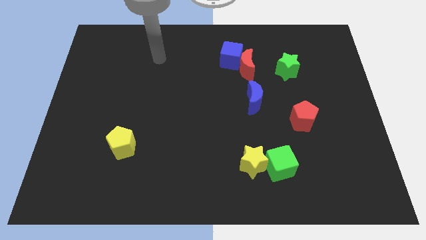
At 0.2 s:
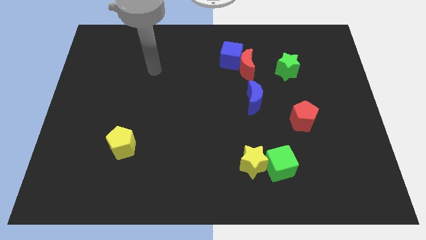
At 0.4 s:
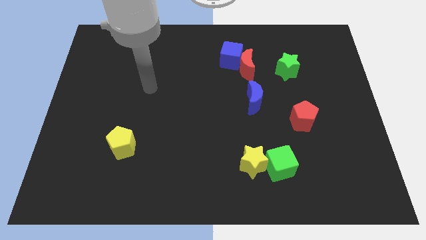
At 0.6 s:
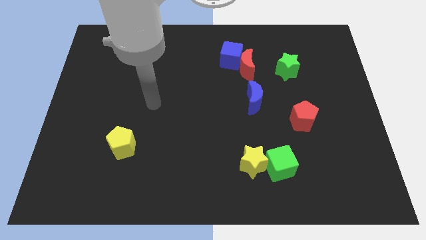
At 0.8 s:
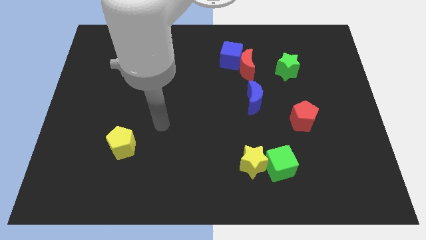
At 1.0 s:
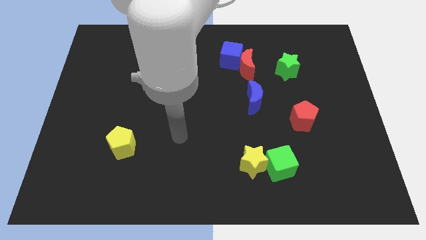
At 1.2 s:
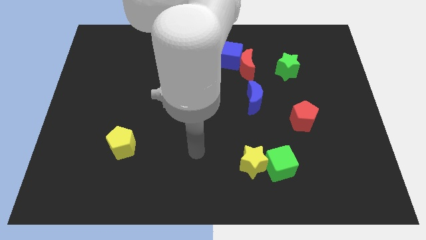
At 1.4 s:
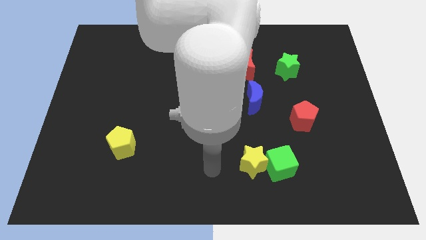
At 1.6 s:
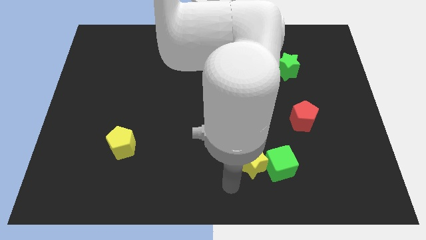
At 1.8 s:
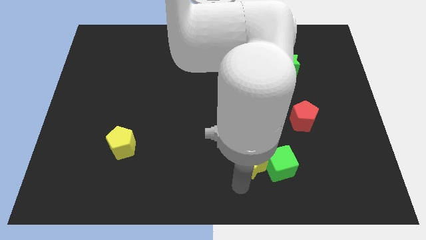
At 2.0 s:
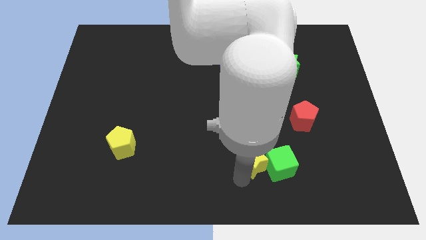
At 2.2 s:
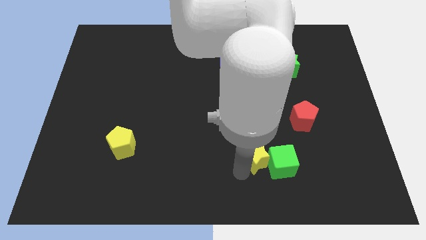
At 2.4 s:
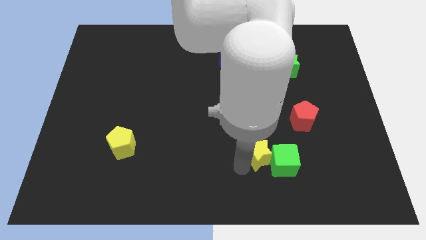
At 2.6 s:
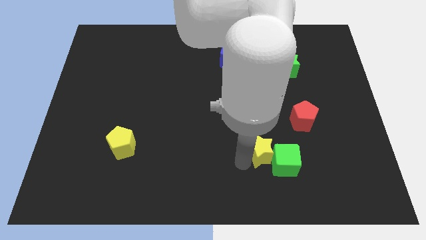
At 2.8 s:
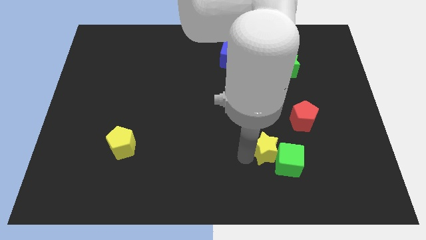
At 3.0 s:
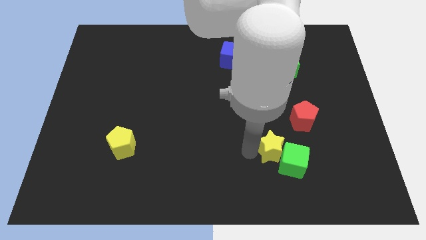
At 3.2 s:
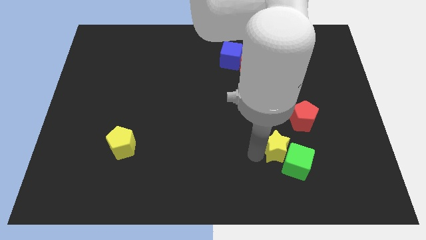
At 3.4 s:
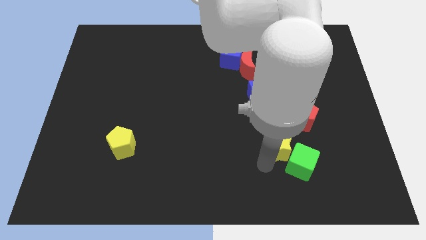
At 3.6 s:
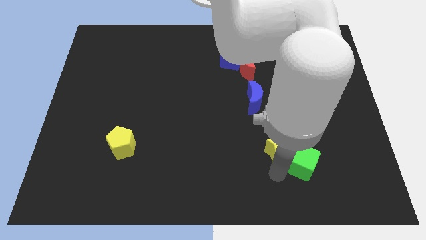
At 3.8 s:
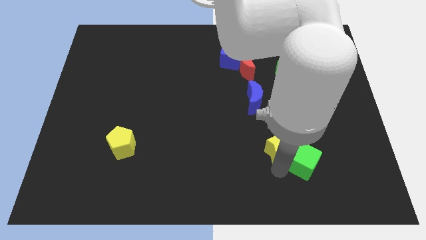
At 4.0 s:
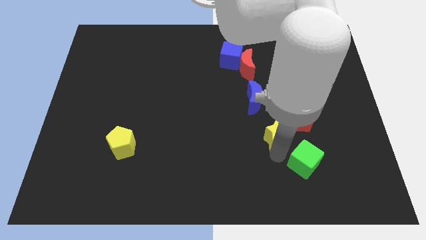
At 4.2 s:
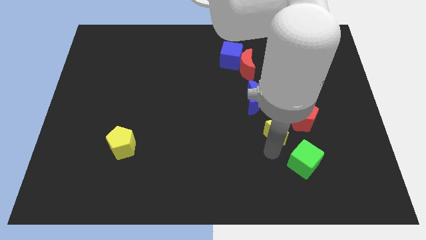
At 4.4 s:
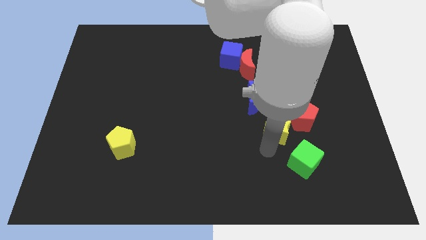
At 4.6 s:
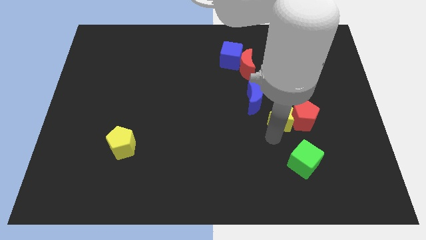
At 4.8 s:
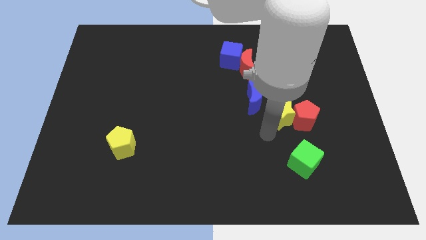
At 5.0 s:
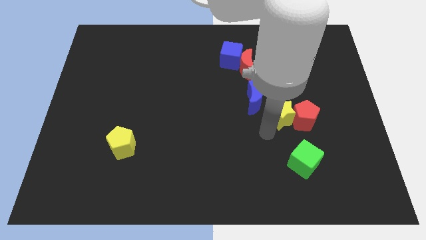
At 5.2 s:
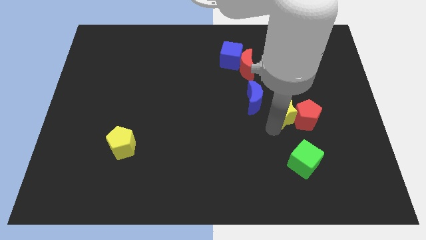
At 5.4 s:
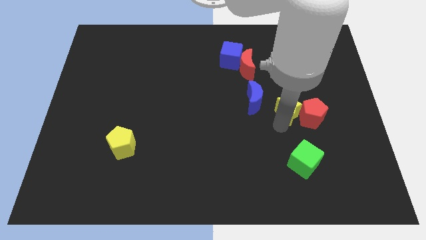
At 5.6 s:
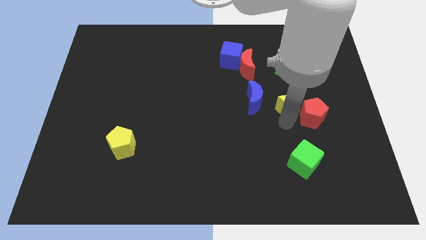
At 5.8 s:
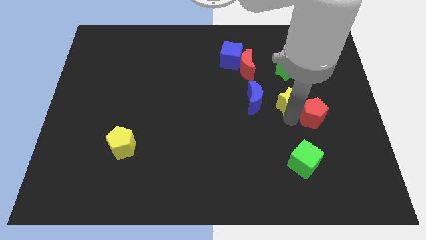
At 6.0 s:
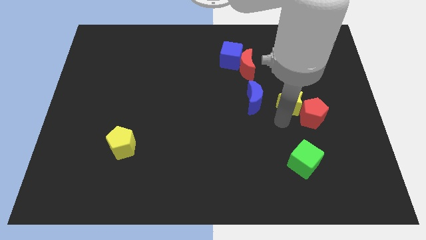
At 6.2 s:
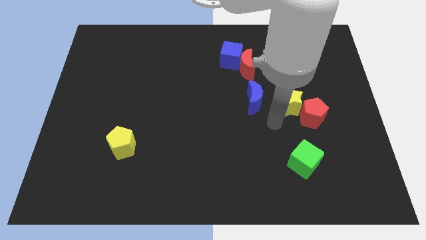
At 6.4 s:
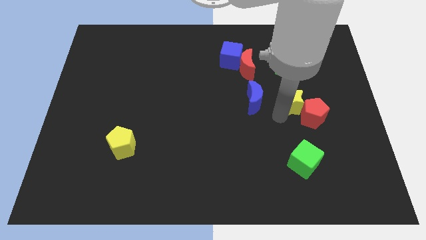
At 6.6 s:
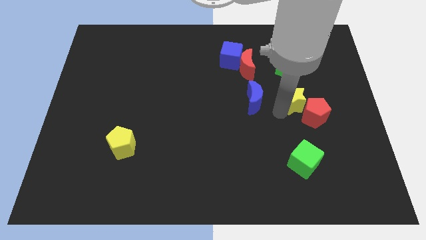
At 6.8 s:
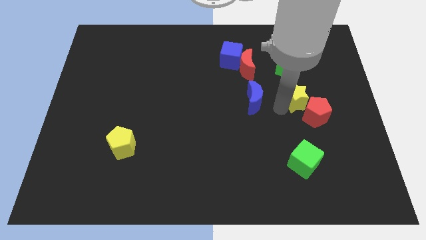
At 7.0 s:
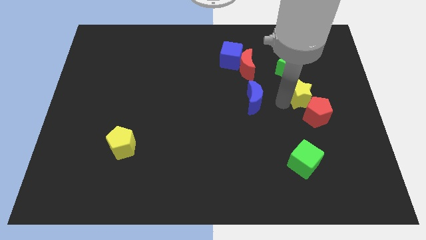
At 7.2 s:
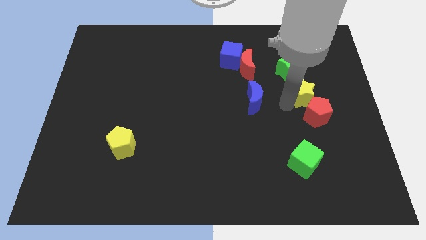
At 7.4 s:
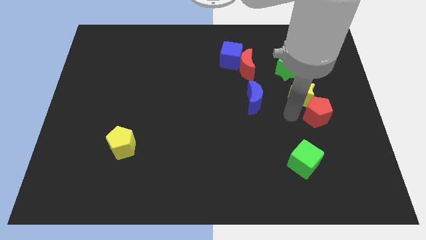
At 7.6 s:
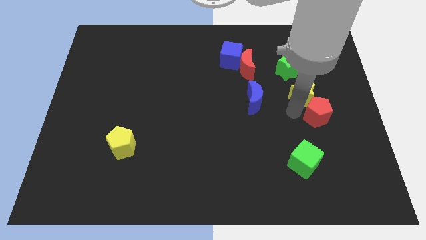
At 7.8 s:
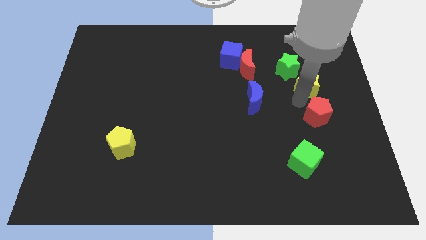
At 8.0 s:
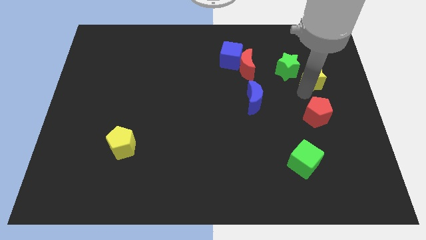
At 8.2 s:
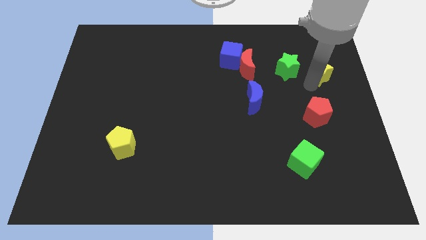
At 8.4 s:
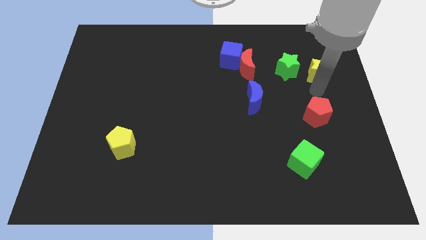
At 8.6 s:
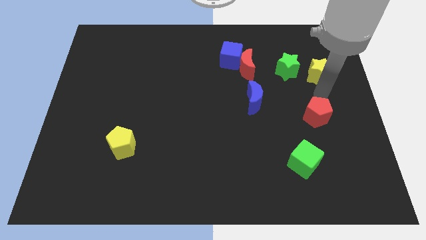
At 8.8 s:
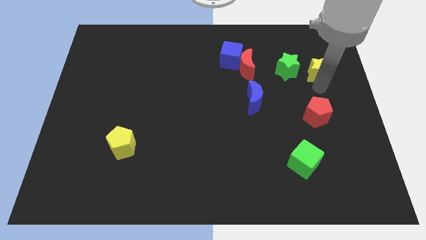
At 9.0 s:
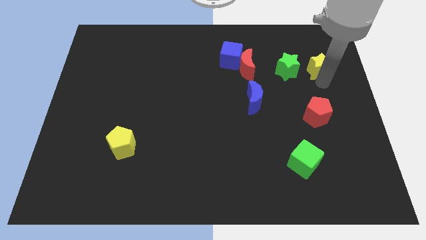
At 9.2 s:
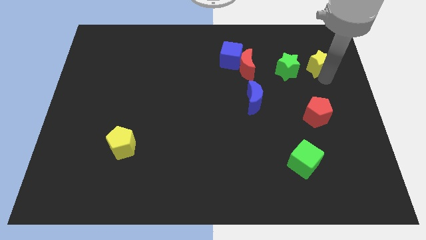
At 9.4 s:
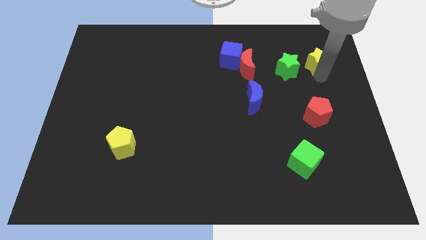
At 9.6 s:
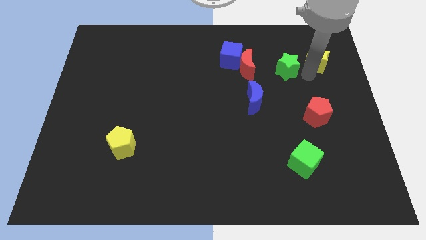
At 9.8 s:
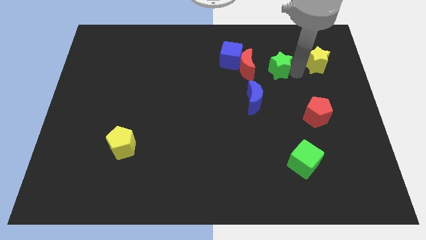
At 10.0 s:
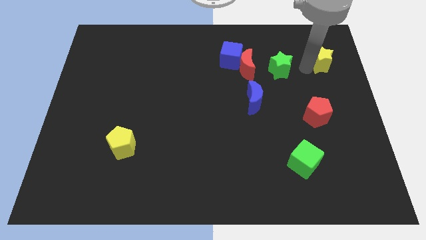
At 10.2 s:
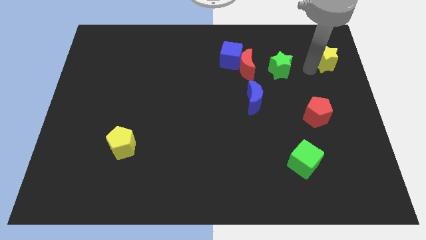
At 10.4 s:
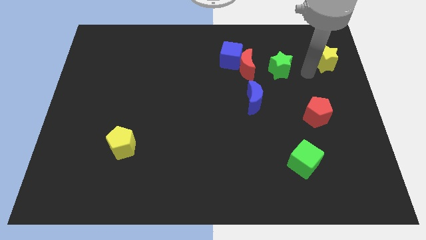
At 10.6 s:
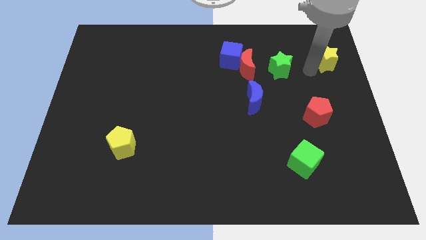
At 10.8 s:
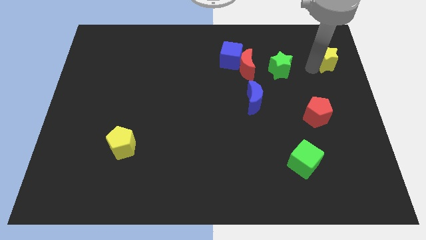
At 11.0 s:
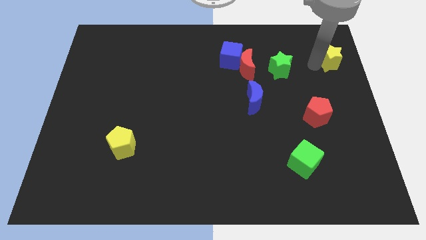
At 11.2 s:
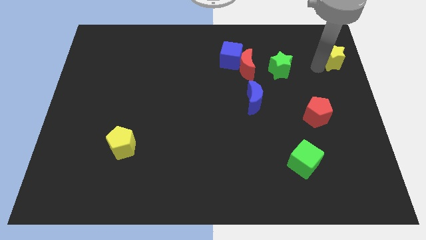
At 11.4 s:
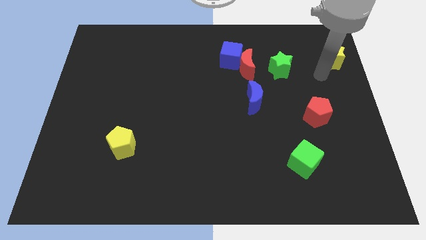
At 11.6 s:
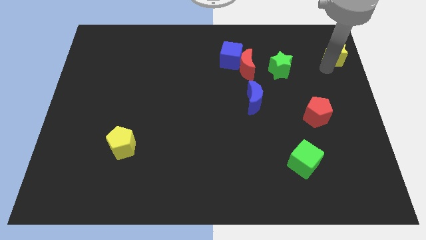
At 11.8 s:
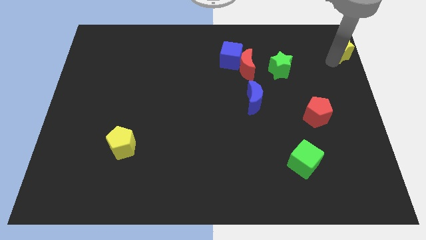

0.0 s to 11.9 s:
push the yellow star to the top right of the board

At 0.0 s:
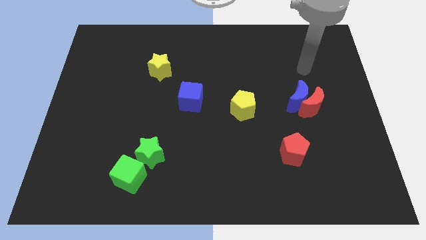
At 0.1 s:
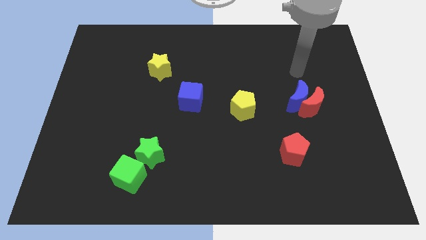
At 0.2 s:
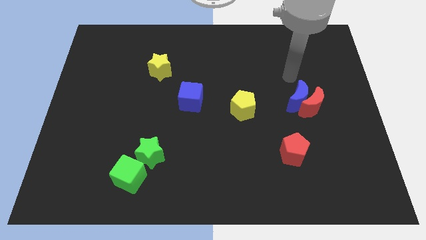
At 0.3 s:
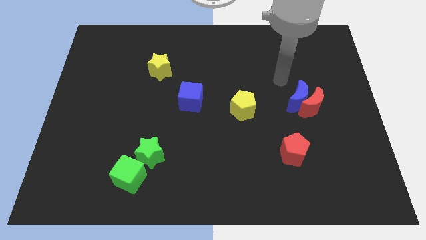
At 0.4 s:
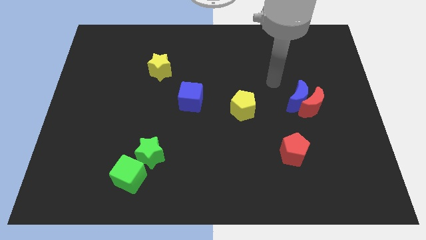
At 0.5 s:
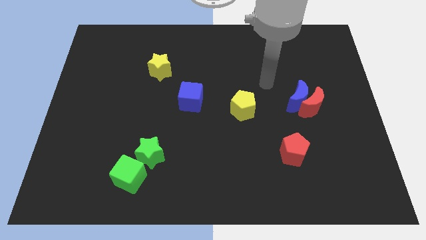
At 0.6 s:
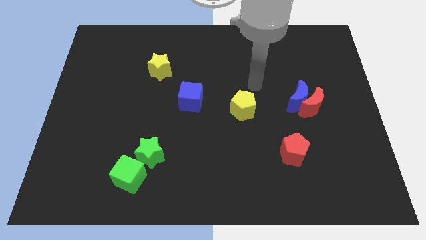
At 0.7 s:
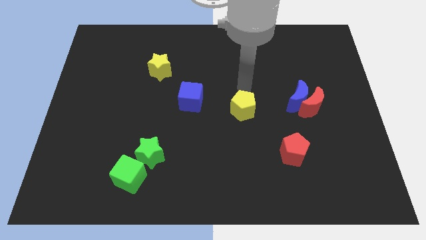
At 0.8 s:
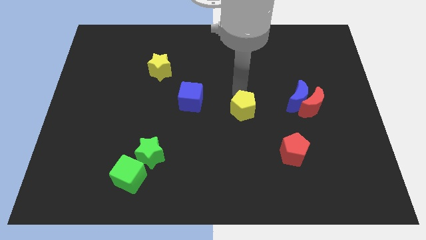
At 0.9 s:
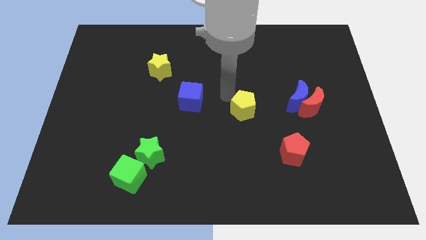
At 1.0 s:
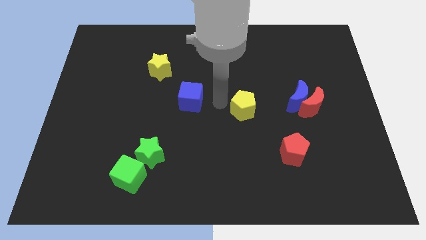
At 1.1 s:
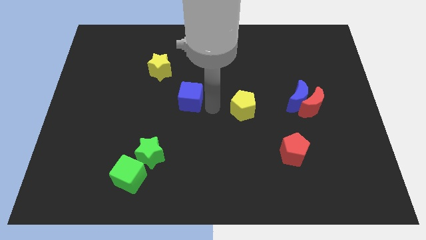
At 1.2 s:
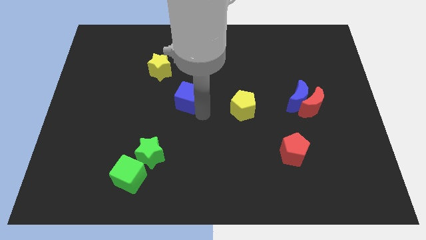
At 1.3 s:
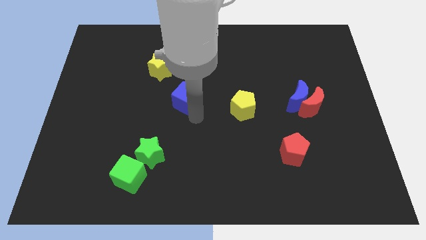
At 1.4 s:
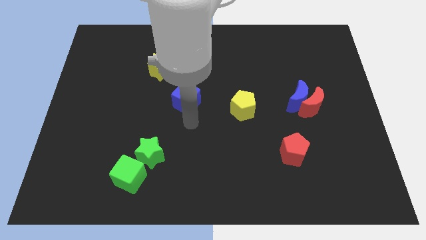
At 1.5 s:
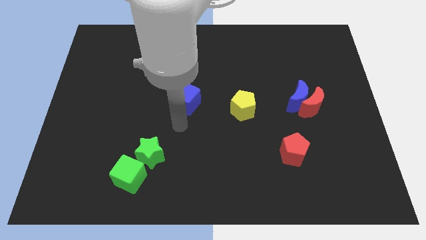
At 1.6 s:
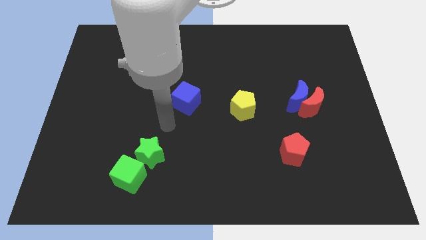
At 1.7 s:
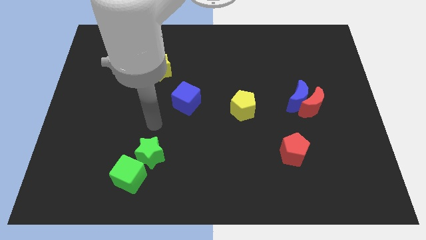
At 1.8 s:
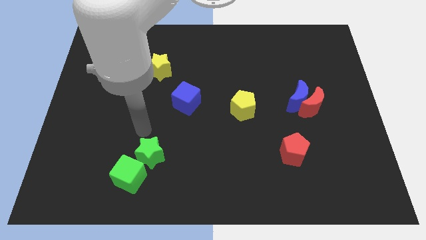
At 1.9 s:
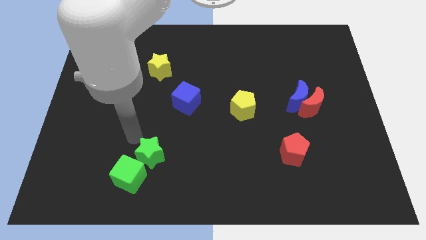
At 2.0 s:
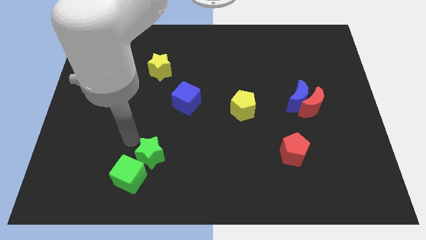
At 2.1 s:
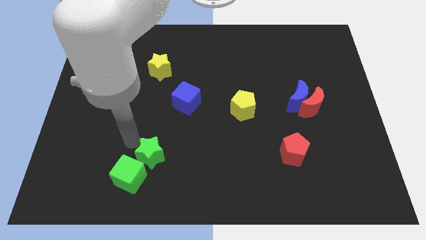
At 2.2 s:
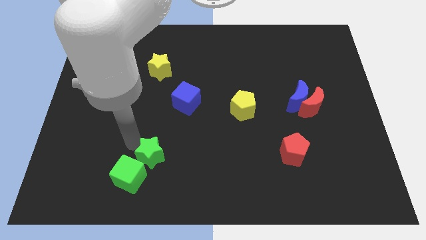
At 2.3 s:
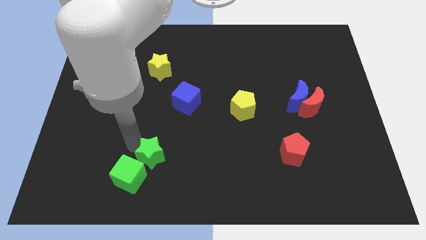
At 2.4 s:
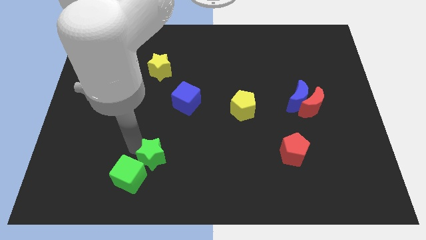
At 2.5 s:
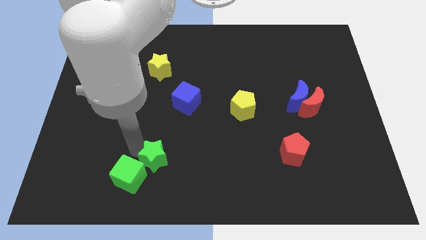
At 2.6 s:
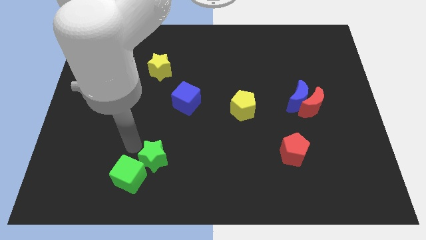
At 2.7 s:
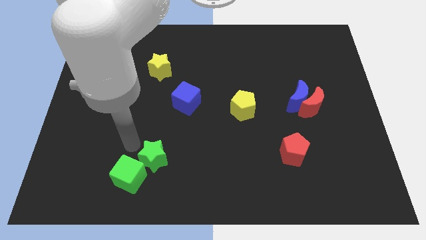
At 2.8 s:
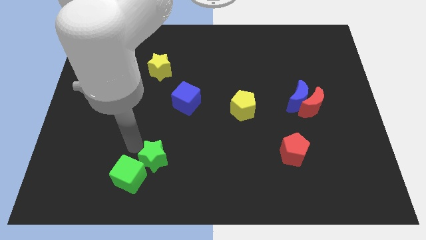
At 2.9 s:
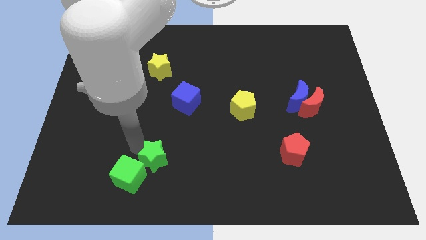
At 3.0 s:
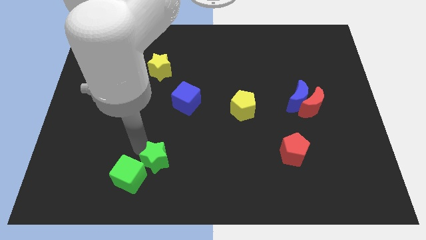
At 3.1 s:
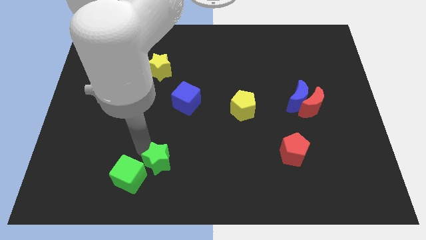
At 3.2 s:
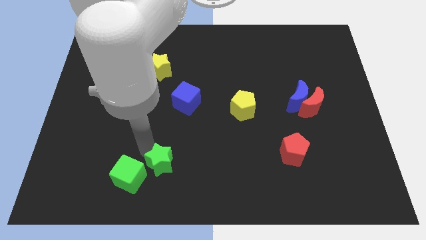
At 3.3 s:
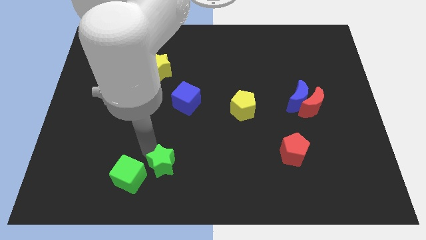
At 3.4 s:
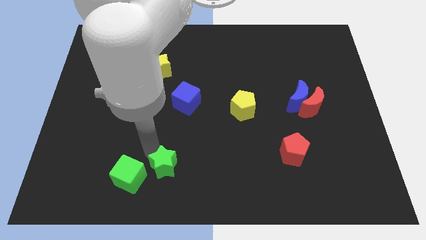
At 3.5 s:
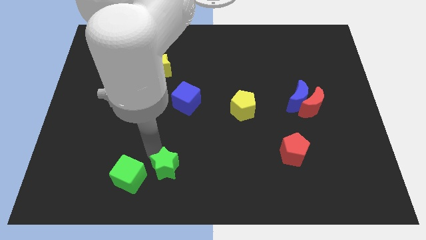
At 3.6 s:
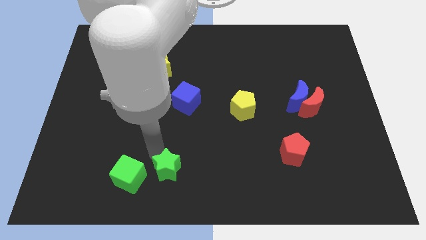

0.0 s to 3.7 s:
put the green star to the bottom side
